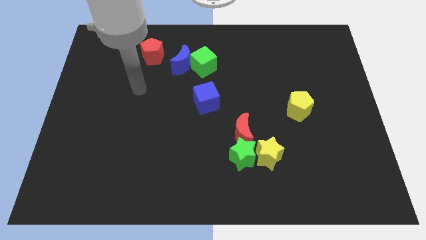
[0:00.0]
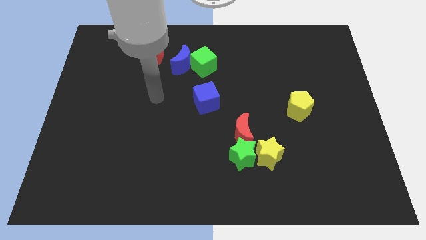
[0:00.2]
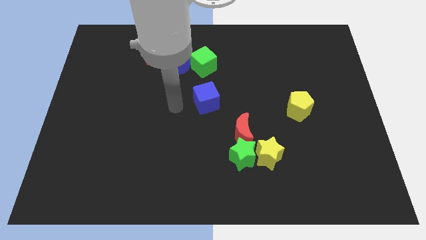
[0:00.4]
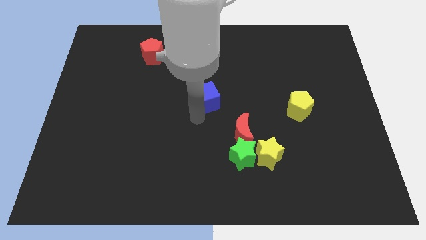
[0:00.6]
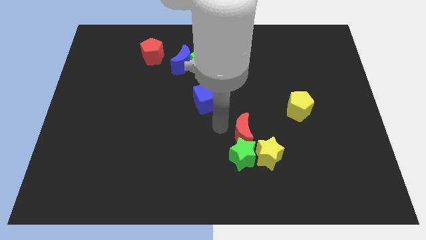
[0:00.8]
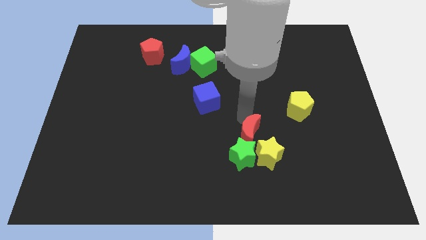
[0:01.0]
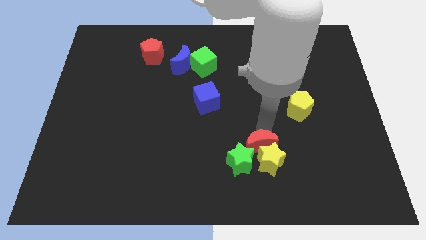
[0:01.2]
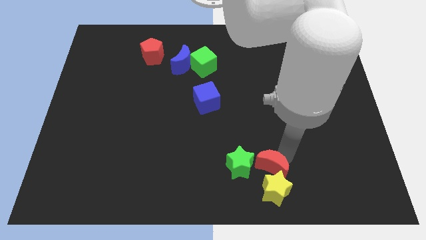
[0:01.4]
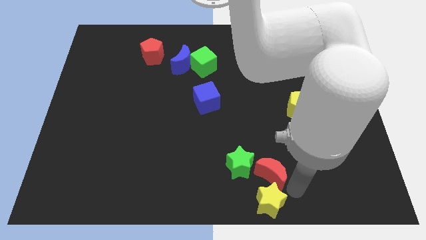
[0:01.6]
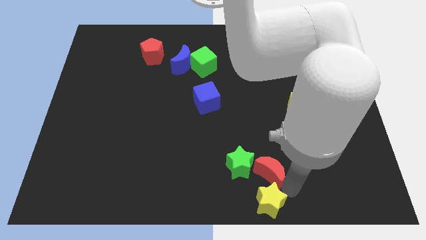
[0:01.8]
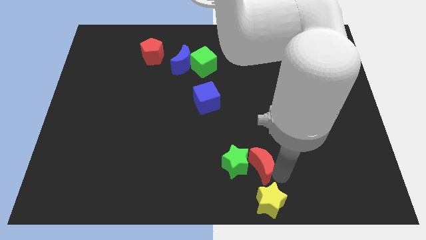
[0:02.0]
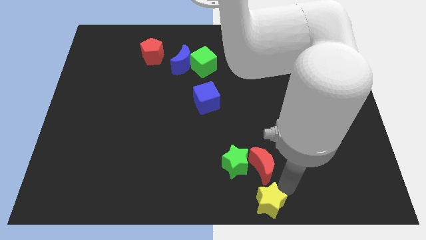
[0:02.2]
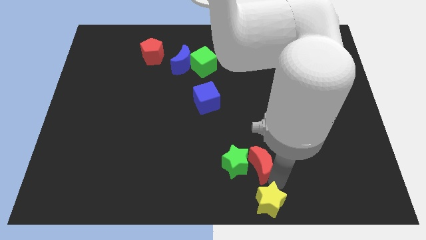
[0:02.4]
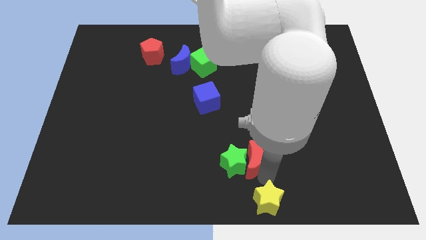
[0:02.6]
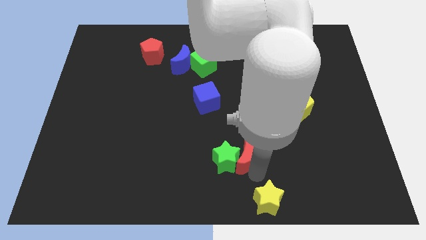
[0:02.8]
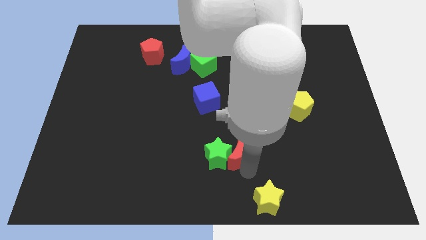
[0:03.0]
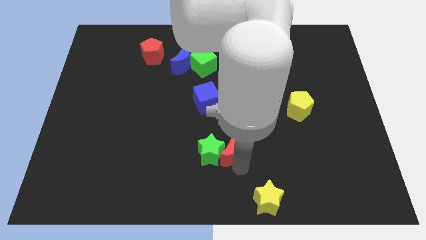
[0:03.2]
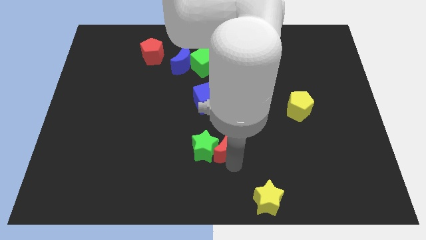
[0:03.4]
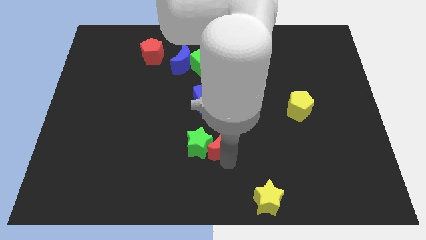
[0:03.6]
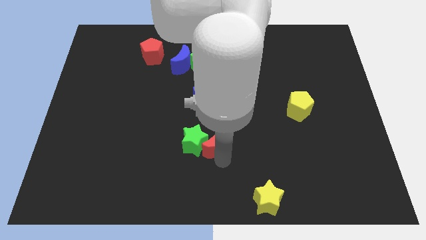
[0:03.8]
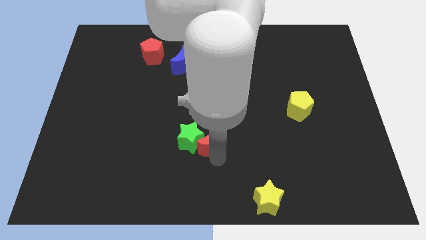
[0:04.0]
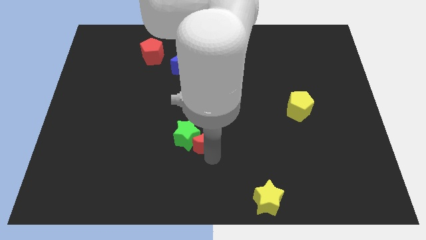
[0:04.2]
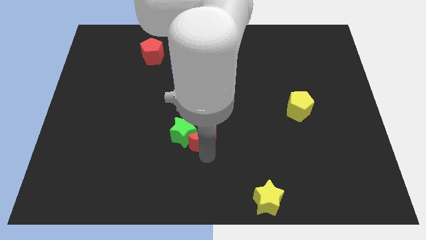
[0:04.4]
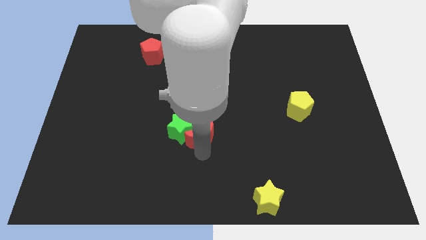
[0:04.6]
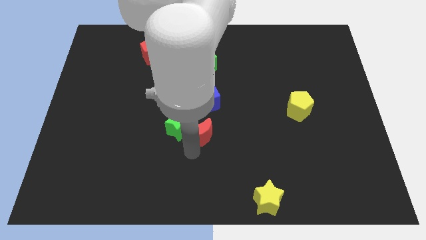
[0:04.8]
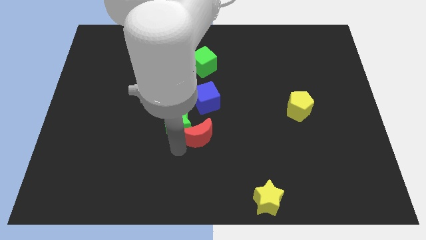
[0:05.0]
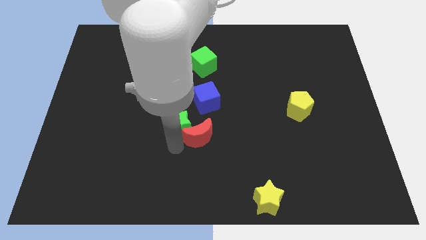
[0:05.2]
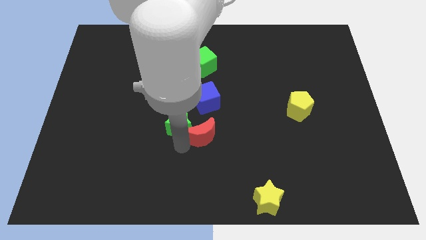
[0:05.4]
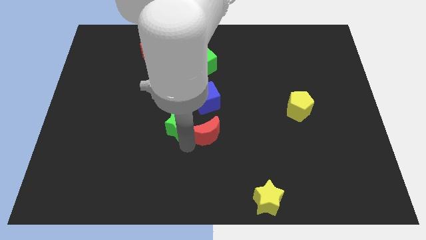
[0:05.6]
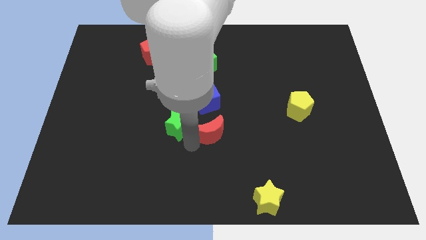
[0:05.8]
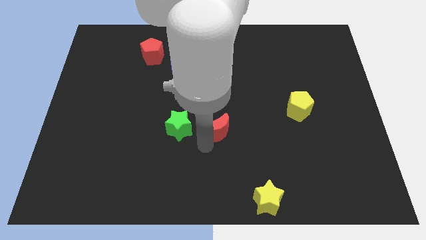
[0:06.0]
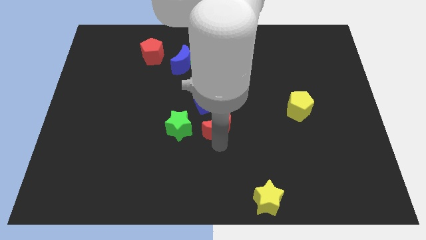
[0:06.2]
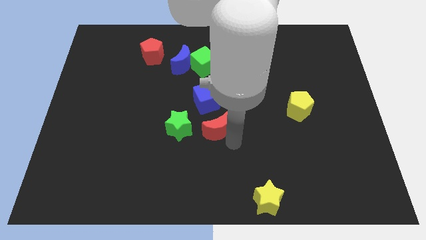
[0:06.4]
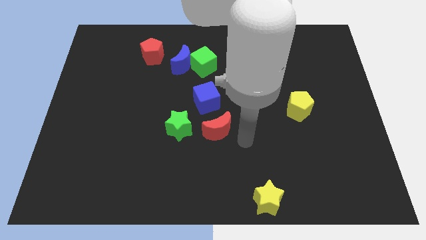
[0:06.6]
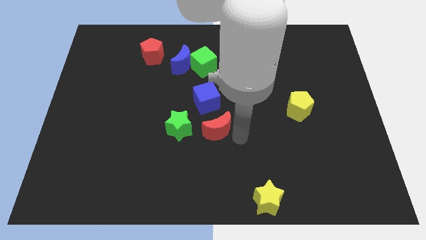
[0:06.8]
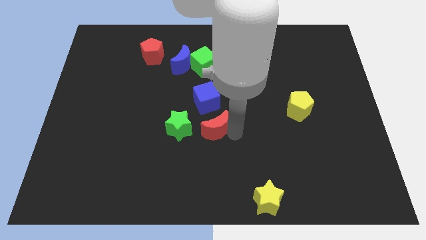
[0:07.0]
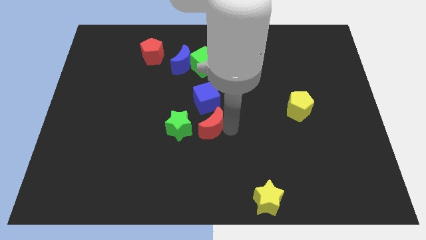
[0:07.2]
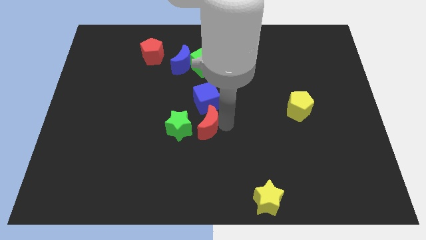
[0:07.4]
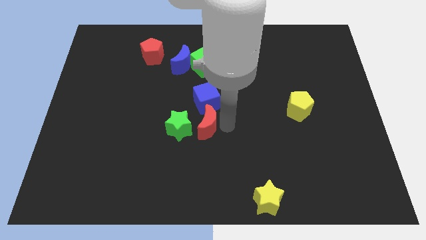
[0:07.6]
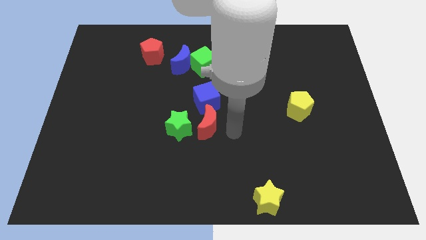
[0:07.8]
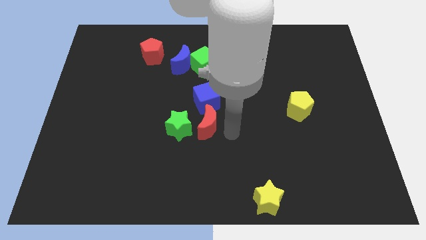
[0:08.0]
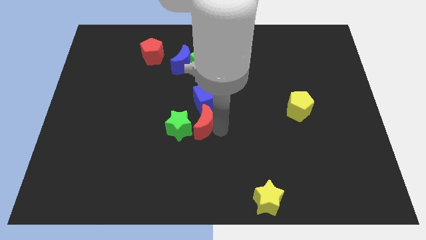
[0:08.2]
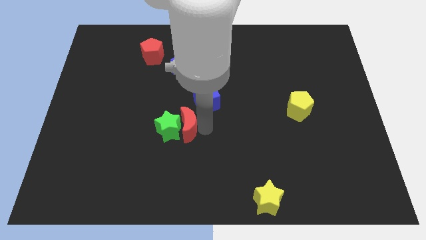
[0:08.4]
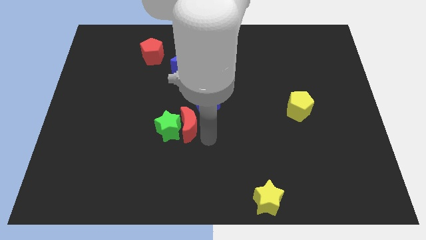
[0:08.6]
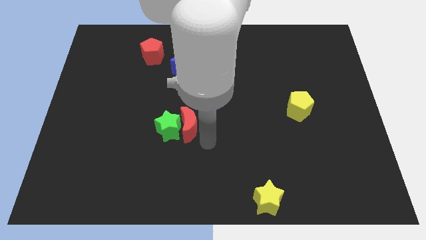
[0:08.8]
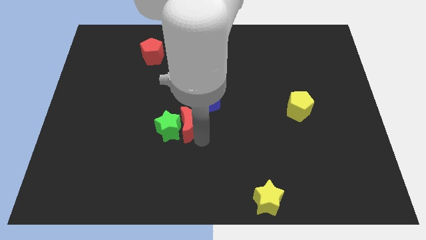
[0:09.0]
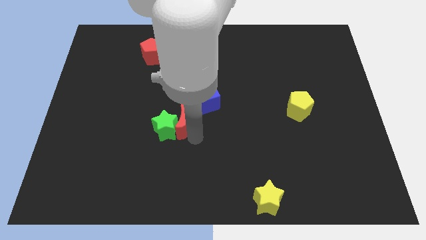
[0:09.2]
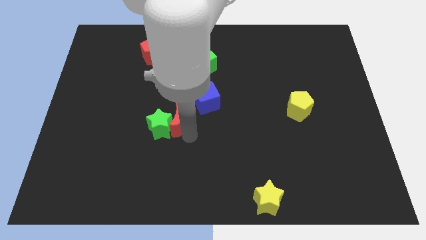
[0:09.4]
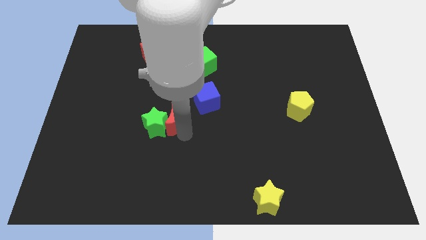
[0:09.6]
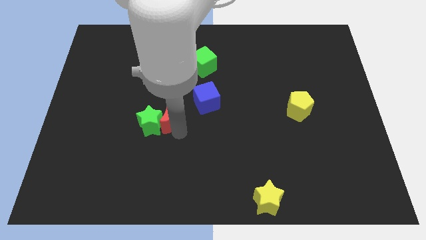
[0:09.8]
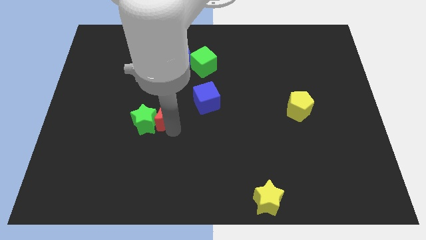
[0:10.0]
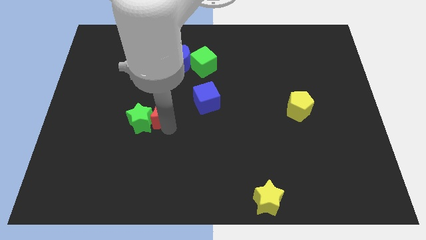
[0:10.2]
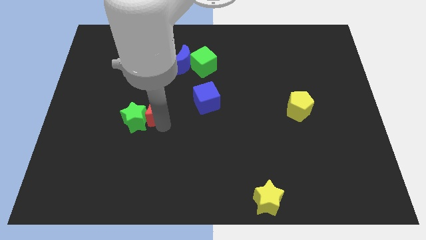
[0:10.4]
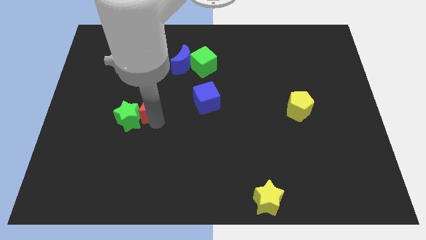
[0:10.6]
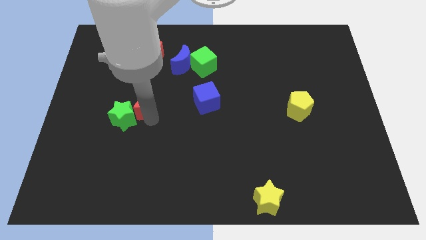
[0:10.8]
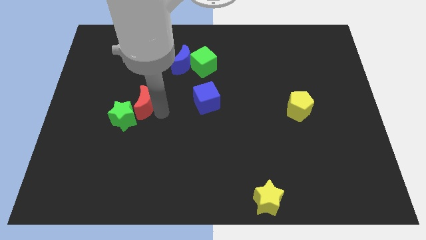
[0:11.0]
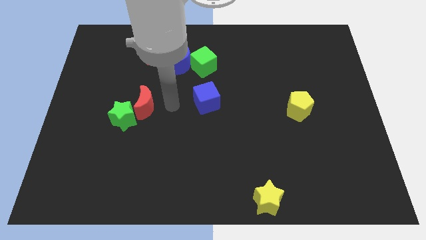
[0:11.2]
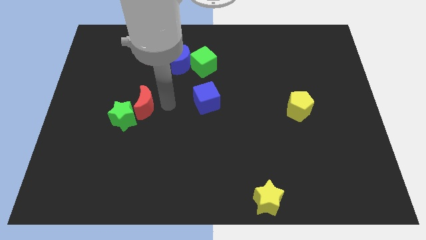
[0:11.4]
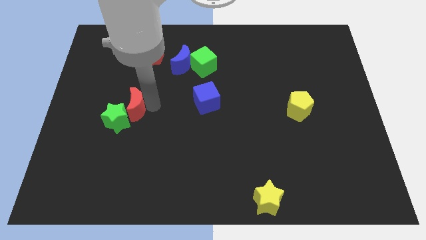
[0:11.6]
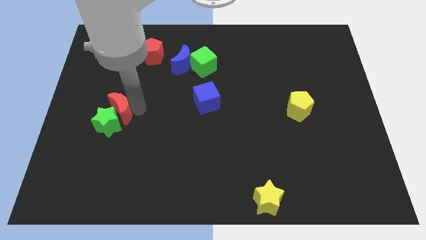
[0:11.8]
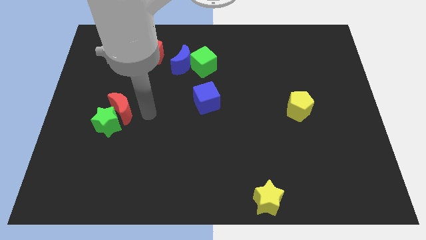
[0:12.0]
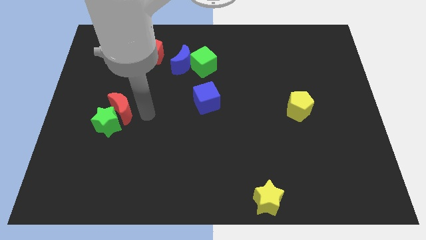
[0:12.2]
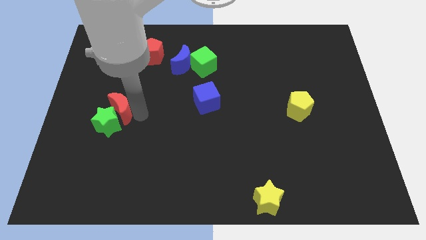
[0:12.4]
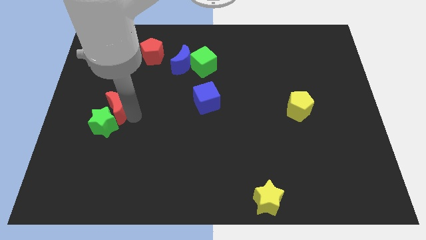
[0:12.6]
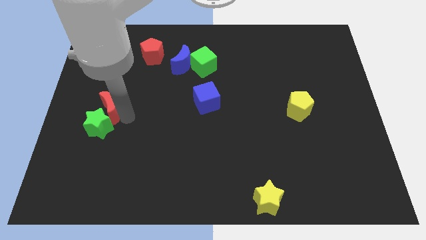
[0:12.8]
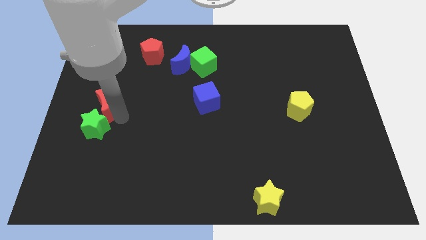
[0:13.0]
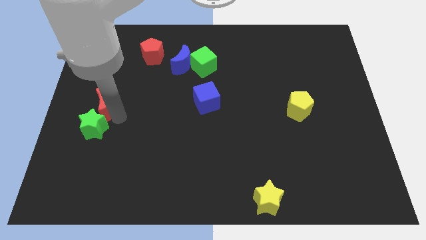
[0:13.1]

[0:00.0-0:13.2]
push the red moon to the left side of the board
